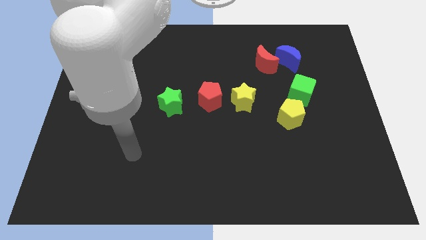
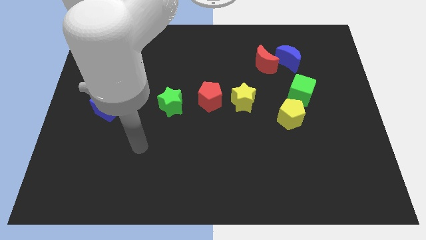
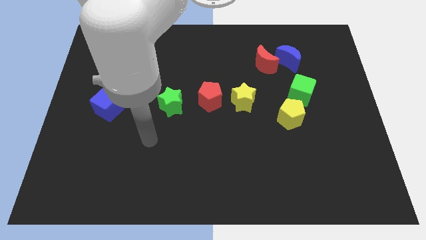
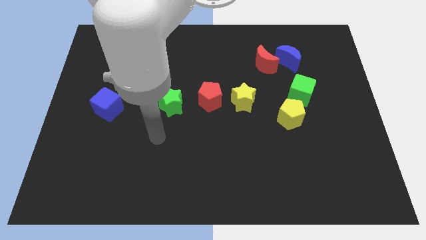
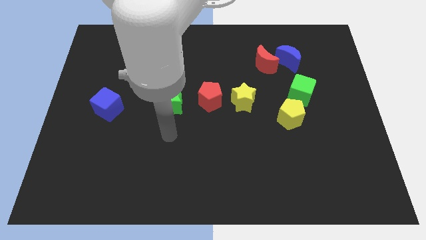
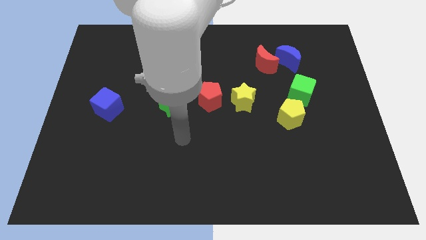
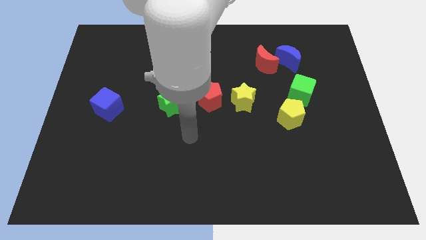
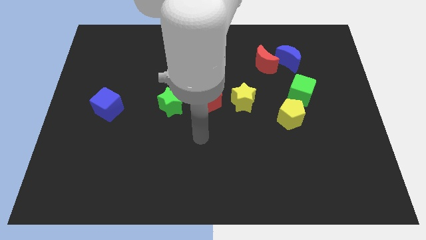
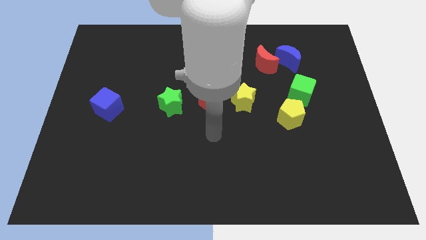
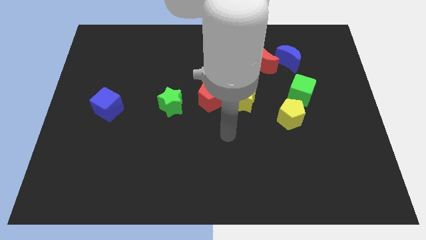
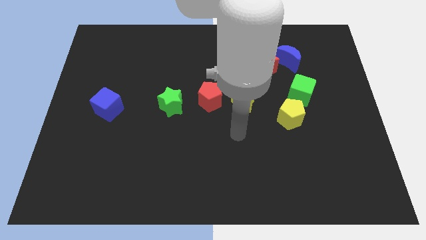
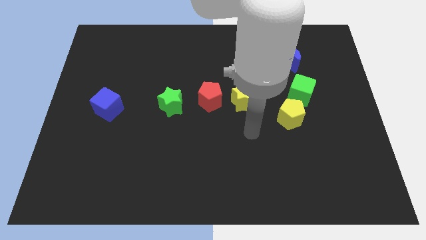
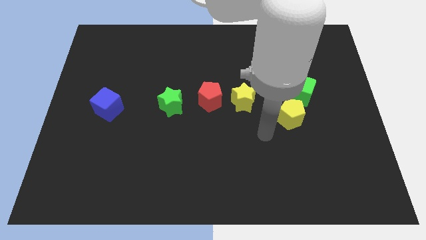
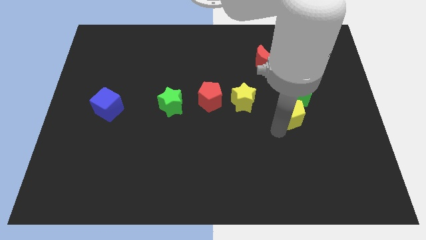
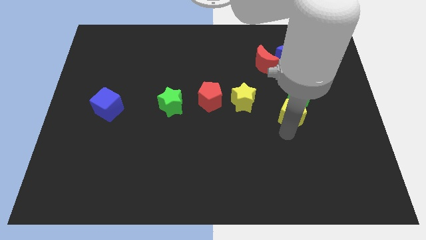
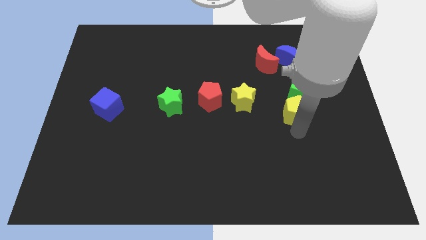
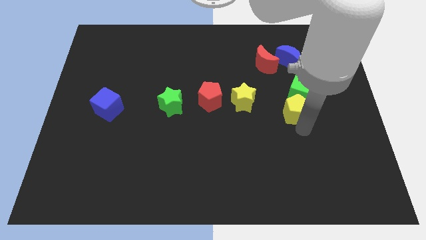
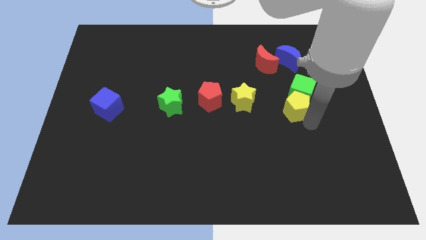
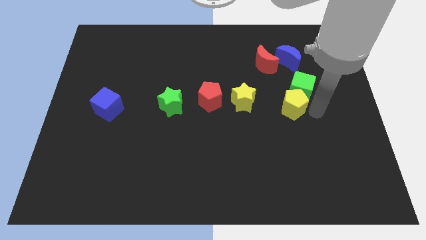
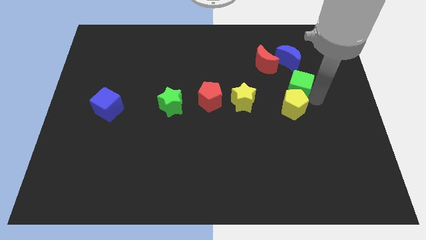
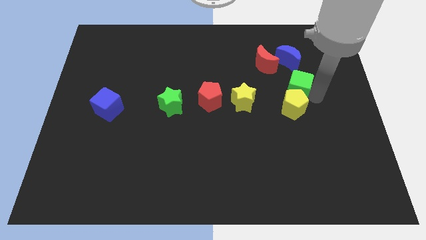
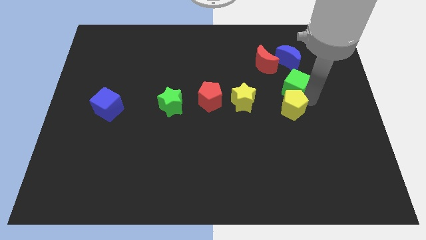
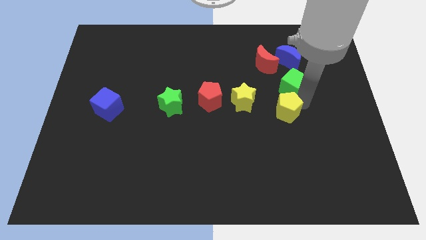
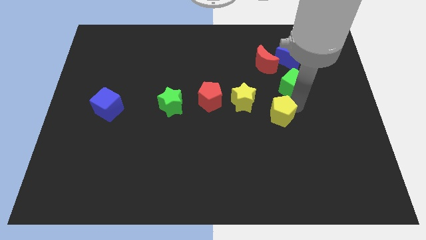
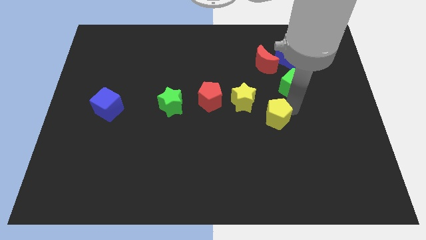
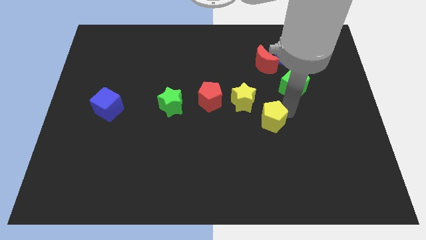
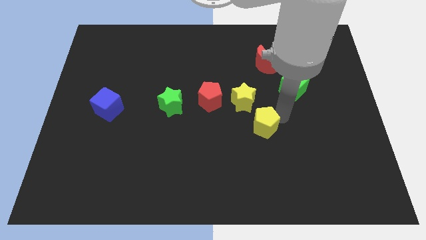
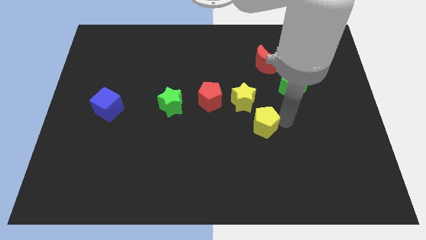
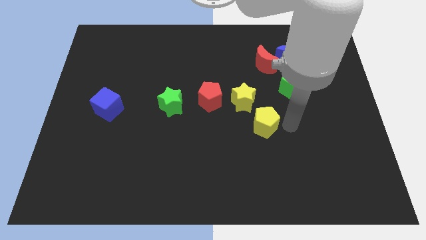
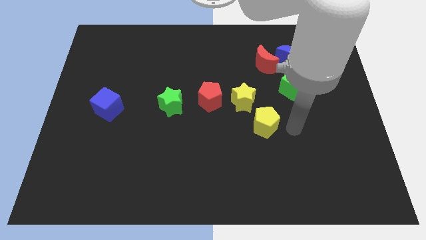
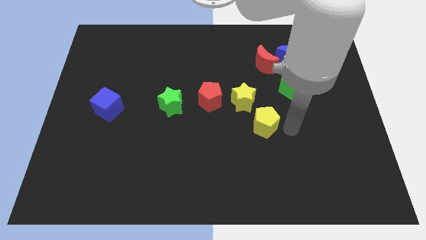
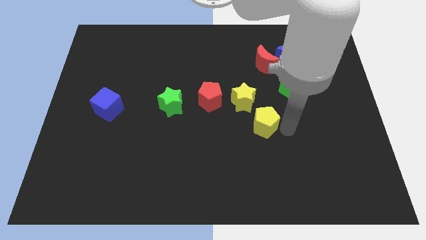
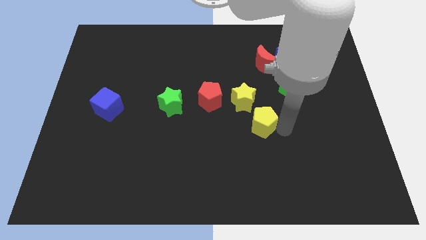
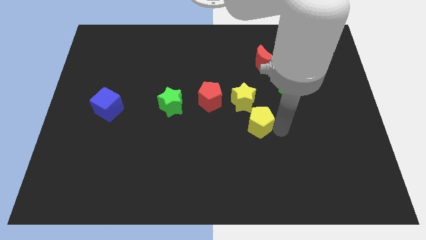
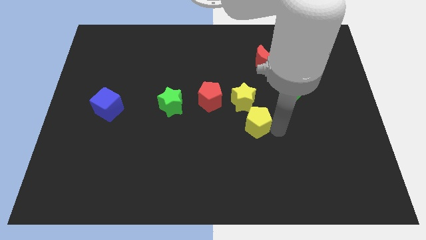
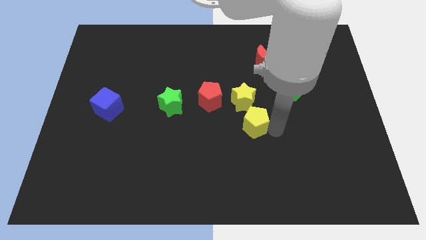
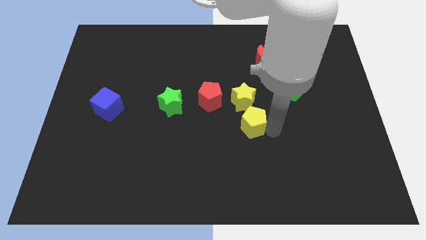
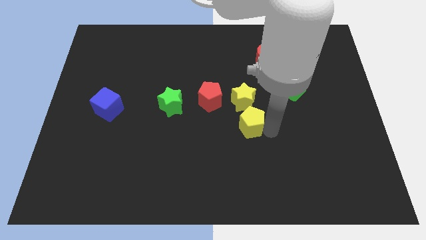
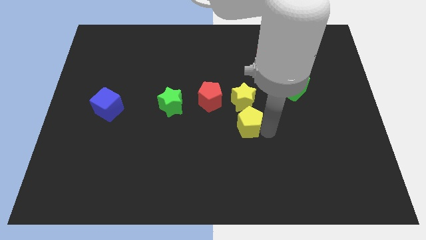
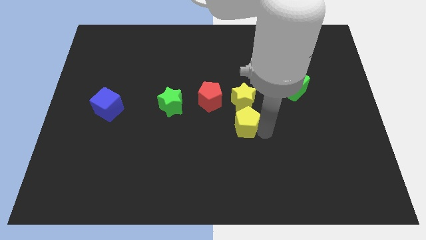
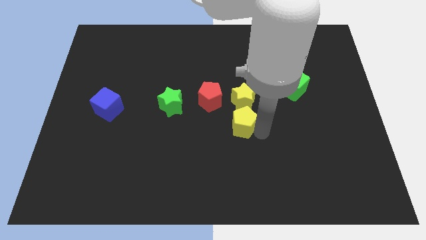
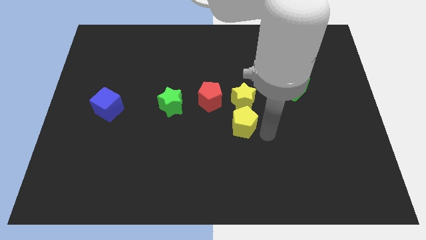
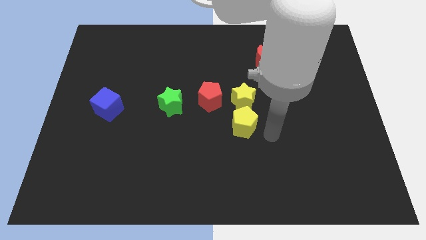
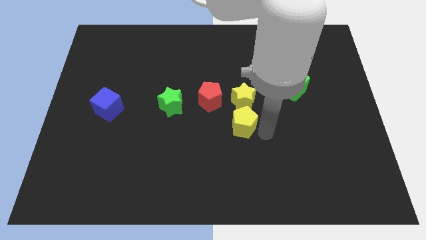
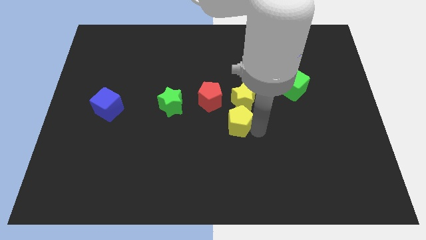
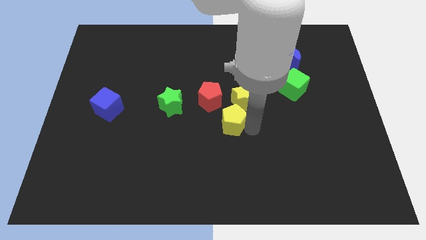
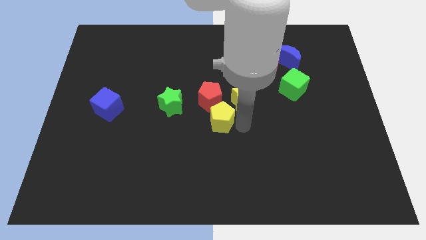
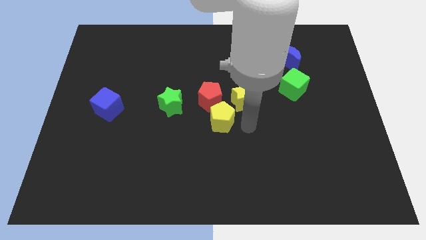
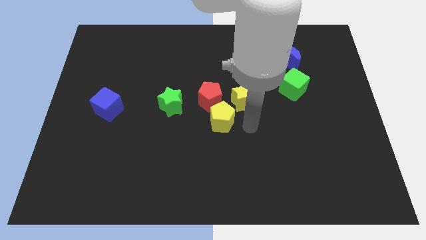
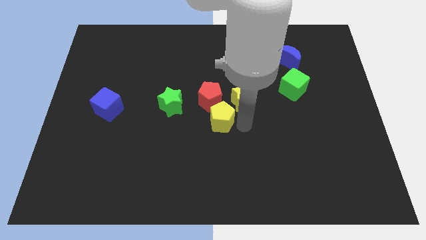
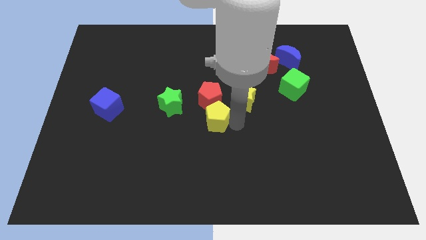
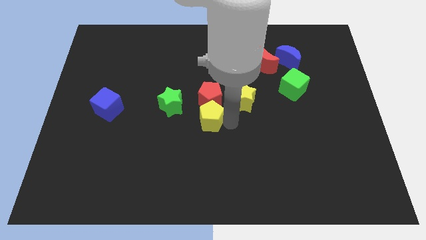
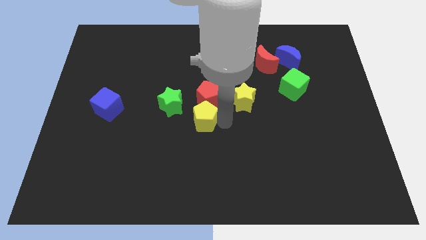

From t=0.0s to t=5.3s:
push the yellow pentagon left

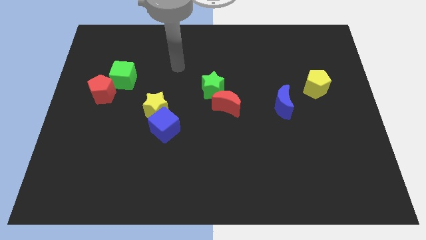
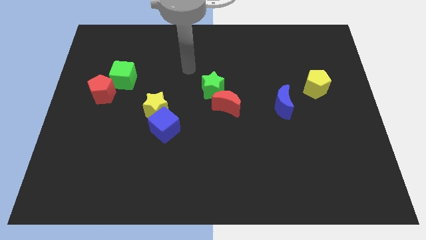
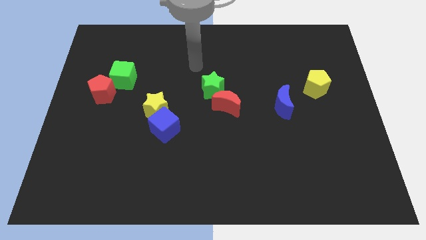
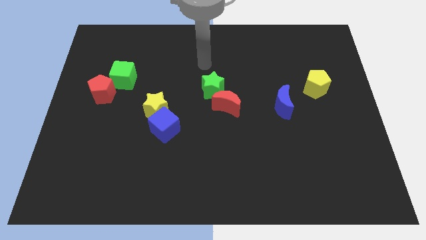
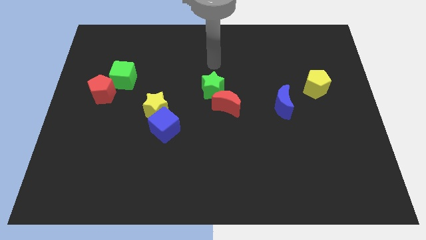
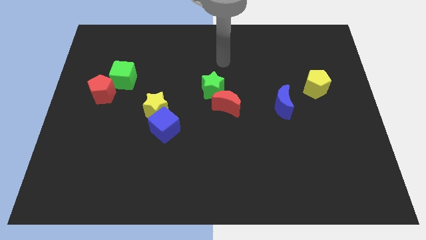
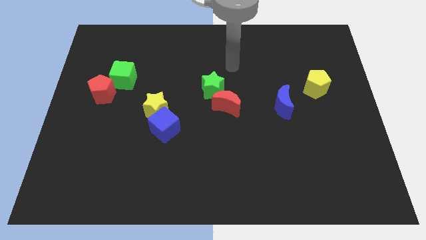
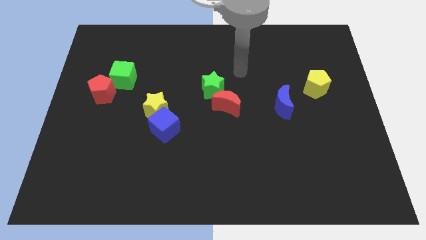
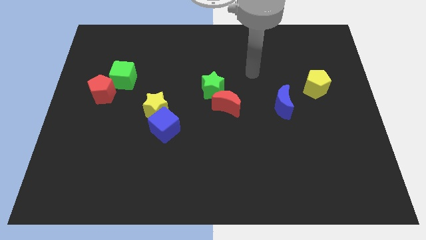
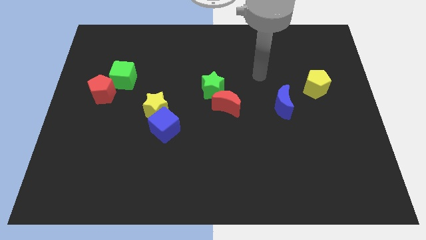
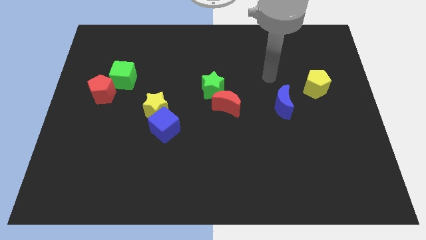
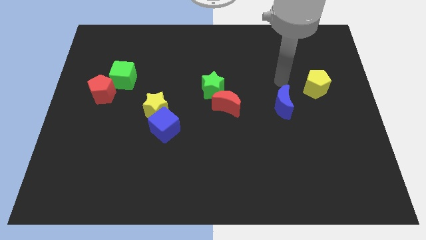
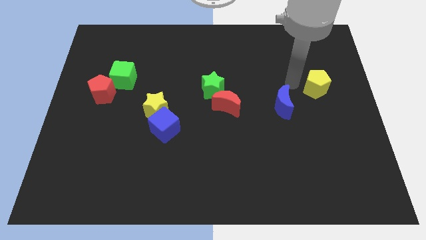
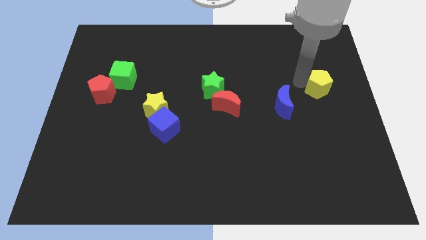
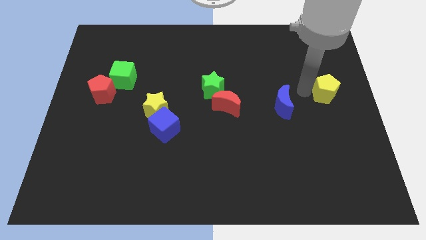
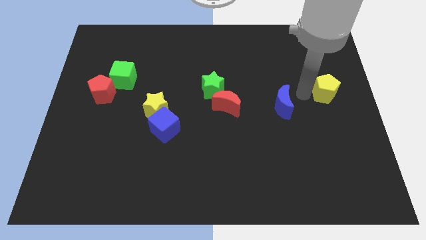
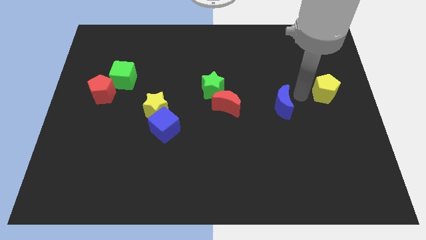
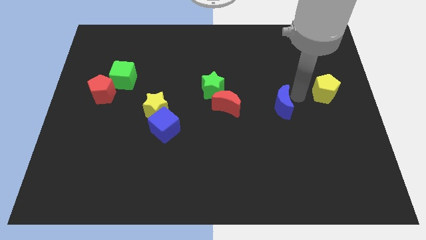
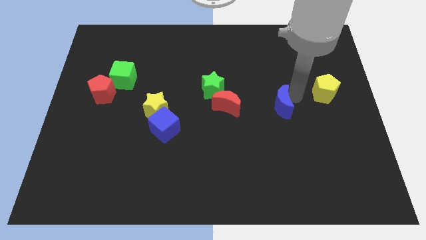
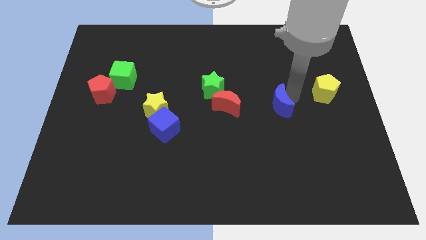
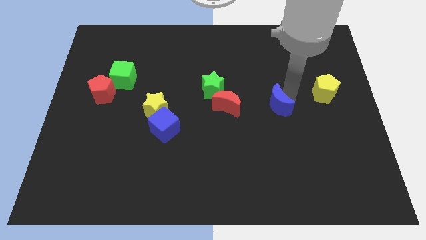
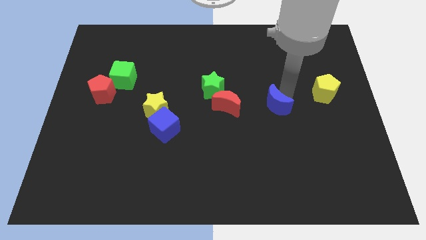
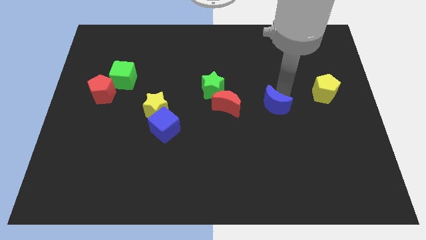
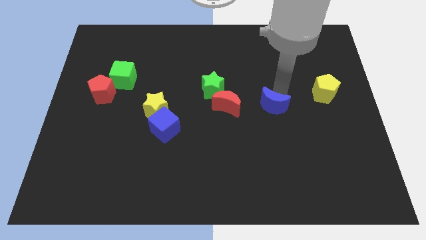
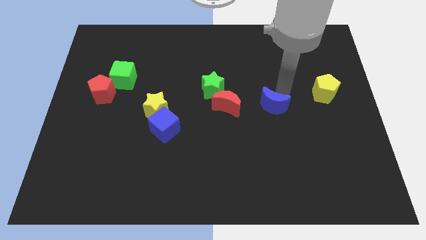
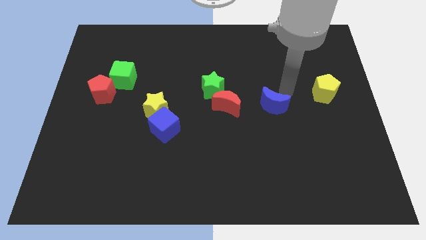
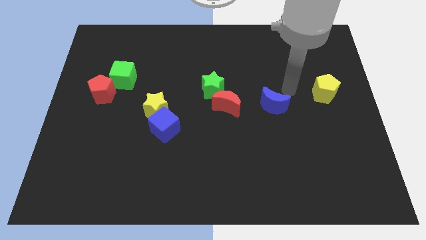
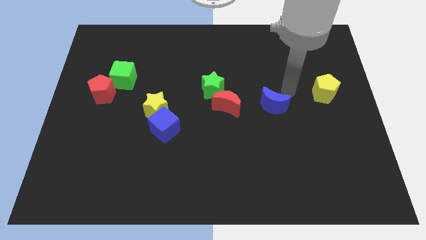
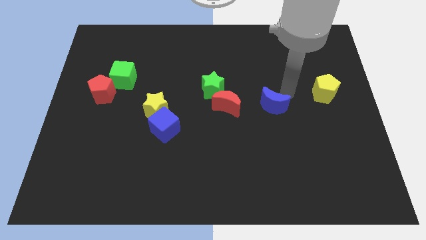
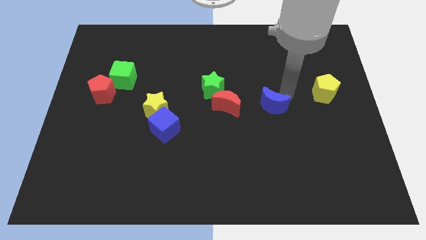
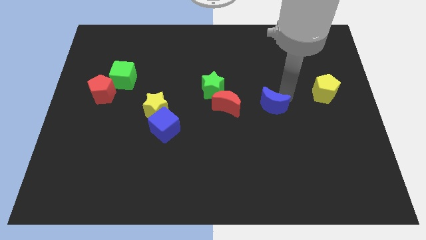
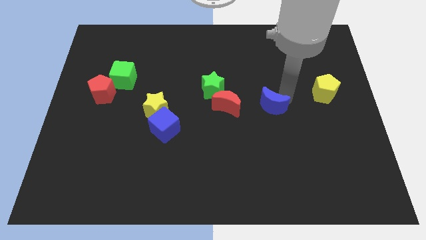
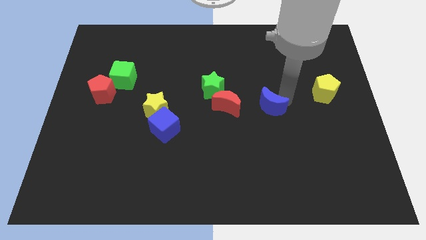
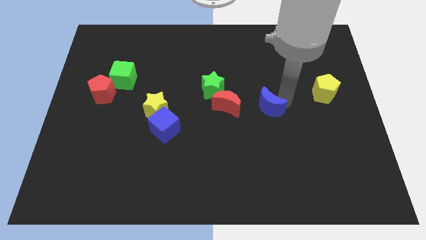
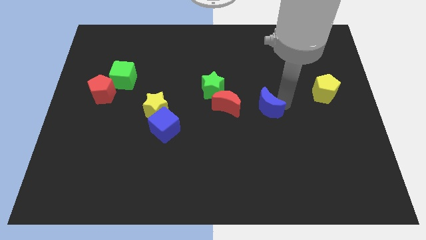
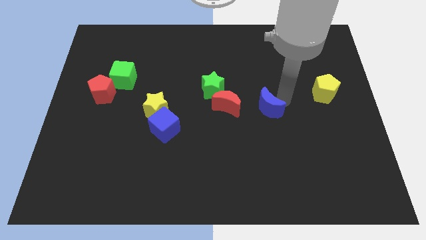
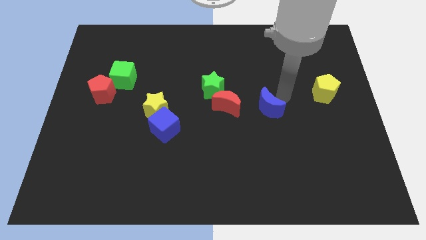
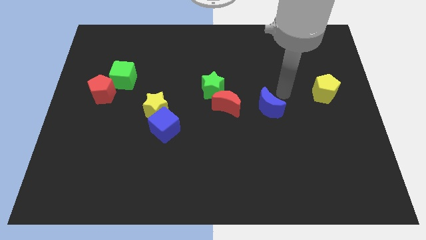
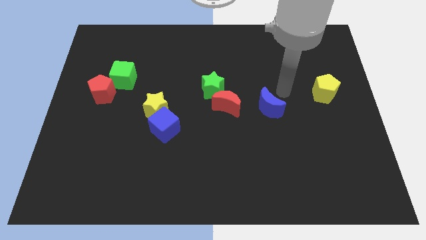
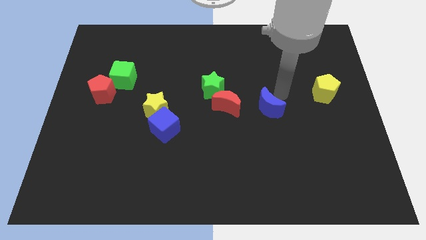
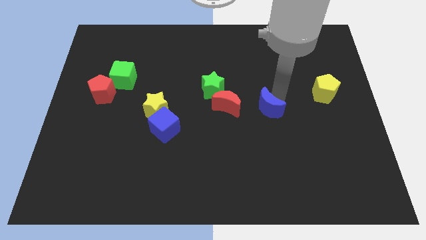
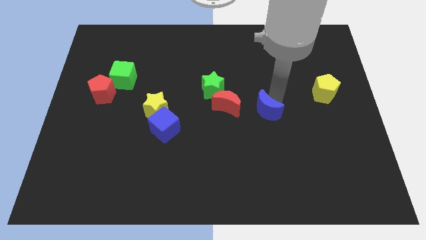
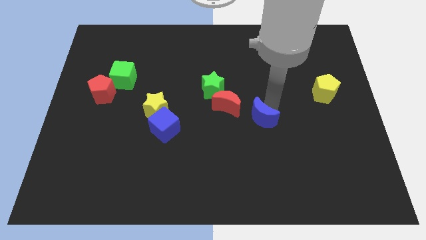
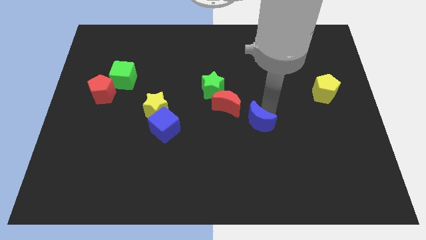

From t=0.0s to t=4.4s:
move the blue moon a bit downwards and to the left diagonally
